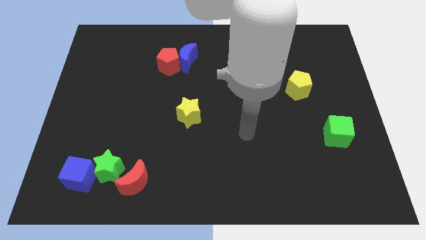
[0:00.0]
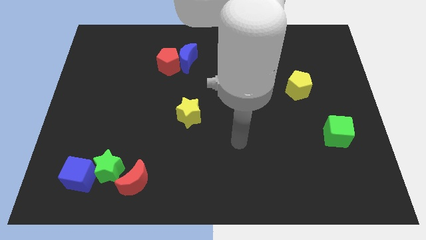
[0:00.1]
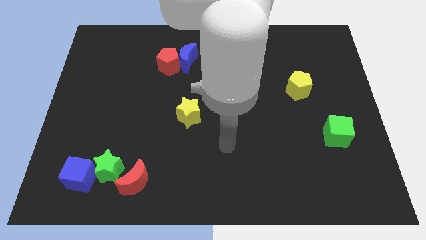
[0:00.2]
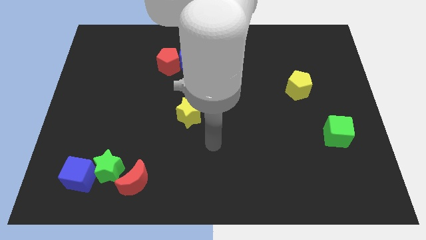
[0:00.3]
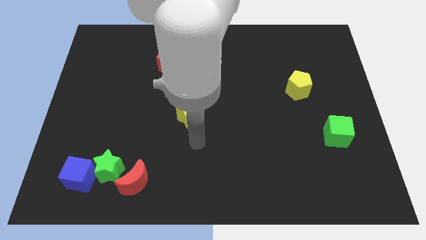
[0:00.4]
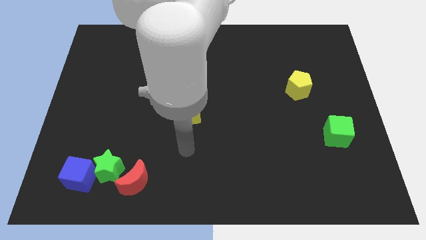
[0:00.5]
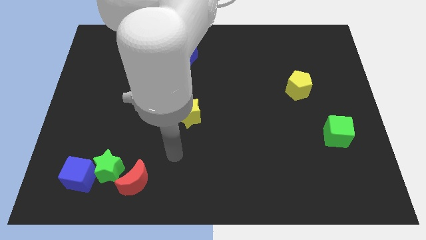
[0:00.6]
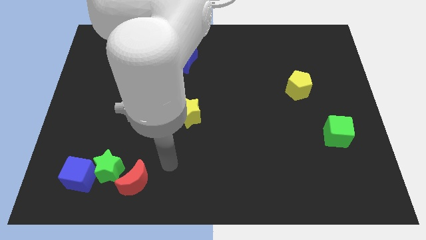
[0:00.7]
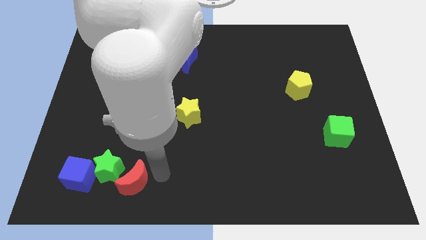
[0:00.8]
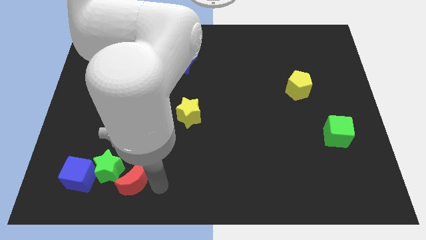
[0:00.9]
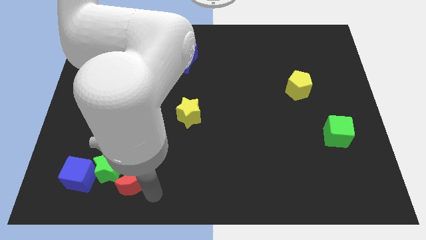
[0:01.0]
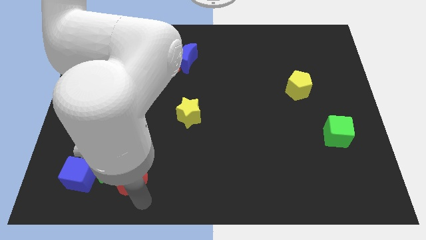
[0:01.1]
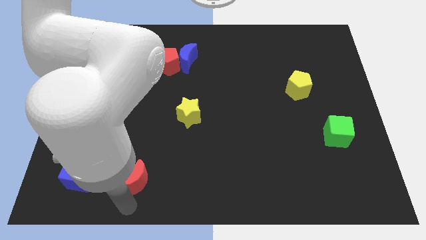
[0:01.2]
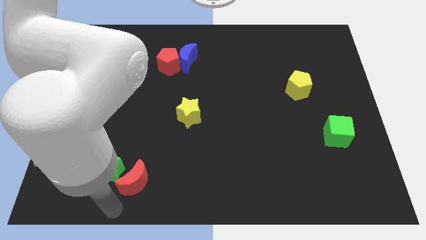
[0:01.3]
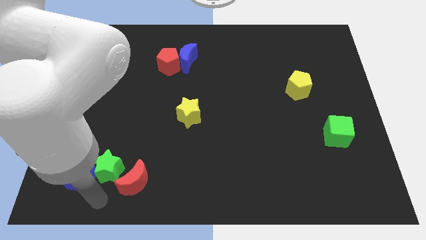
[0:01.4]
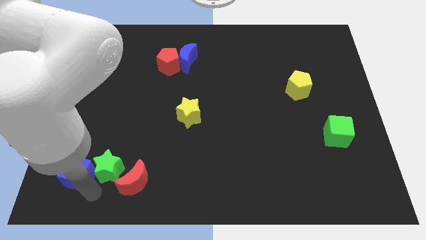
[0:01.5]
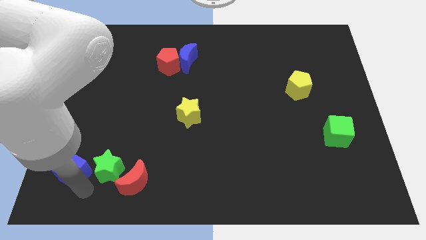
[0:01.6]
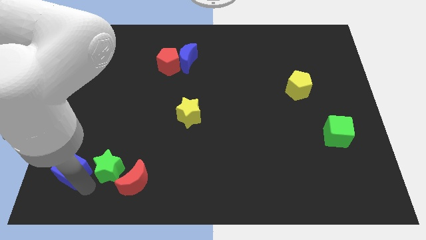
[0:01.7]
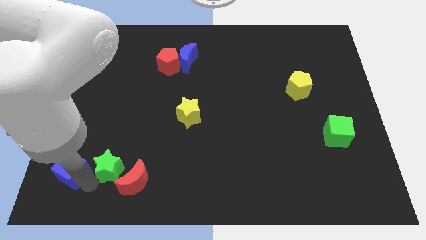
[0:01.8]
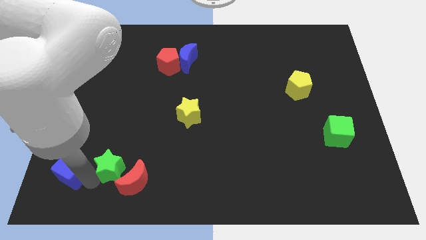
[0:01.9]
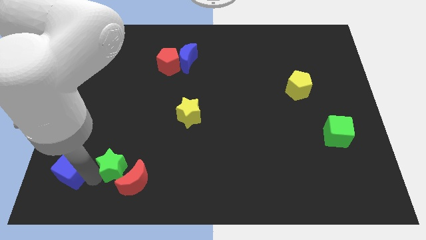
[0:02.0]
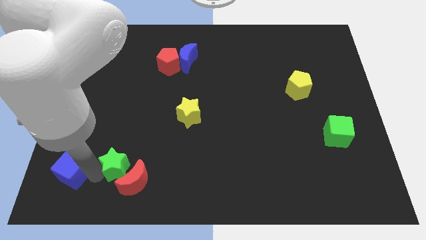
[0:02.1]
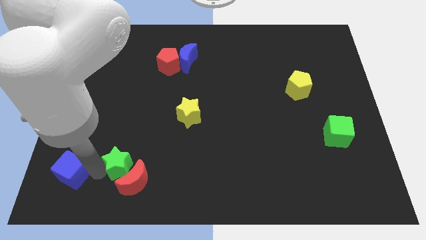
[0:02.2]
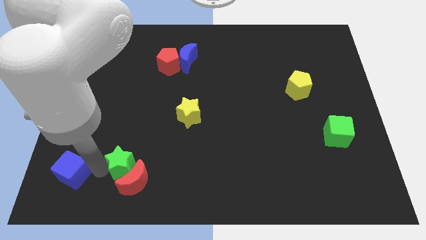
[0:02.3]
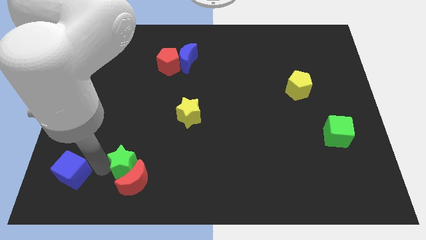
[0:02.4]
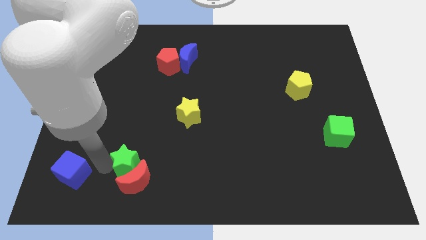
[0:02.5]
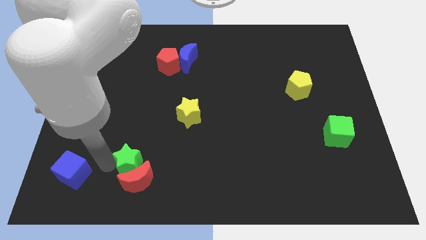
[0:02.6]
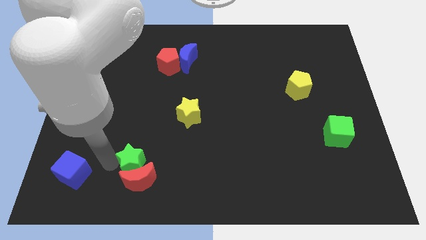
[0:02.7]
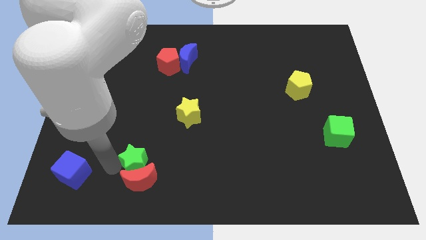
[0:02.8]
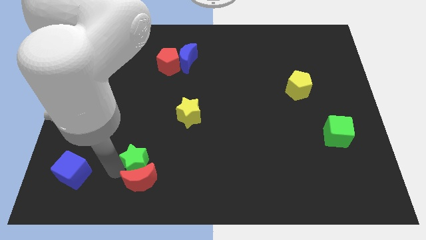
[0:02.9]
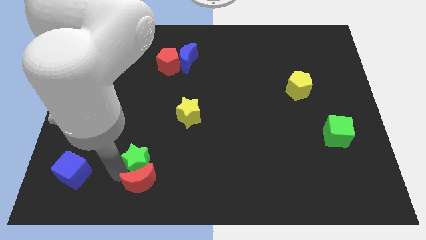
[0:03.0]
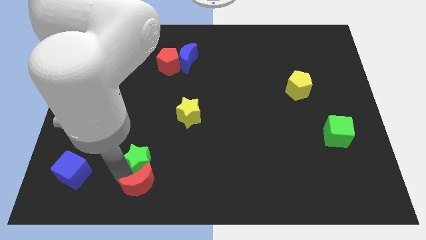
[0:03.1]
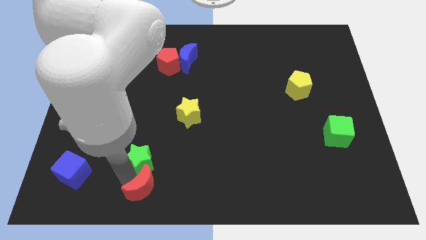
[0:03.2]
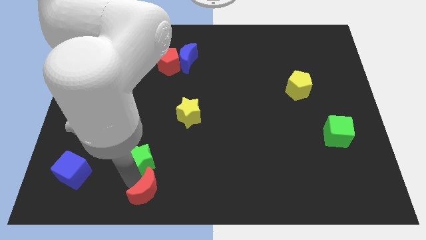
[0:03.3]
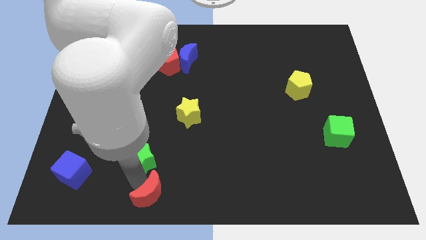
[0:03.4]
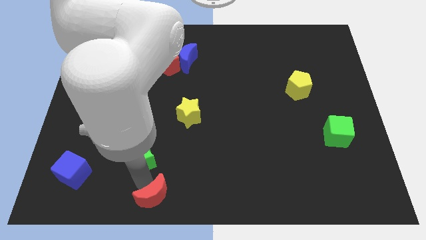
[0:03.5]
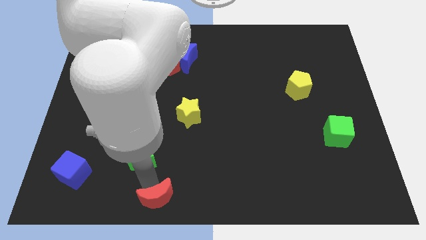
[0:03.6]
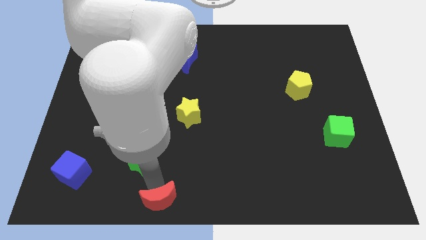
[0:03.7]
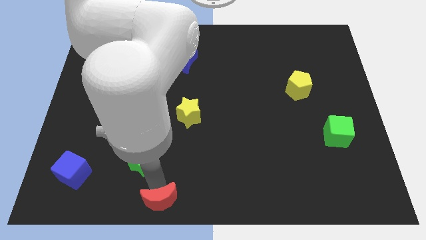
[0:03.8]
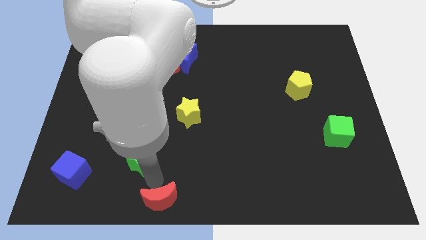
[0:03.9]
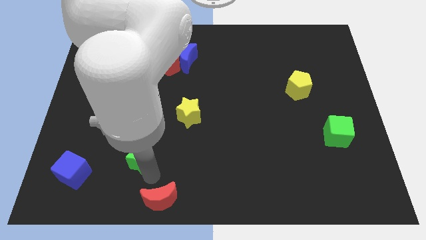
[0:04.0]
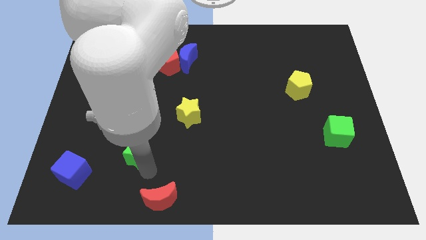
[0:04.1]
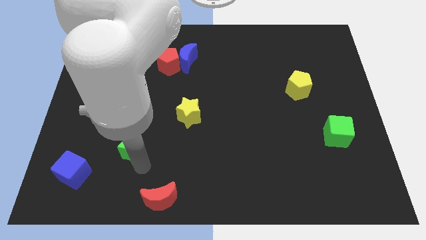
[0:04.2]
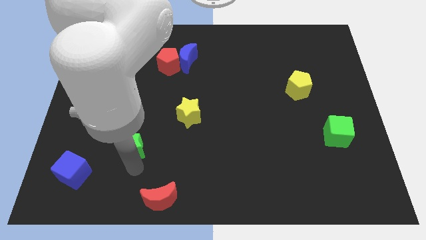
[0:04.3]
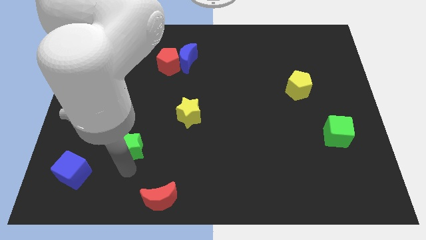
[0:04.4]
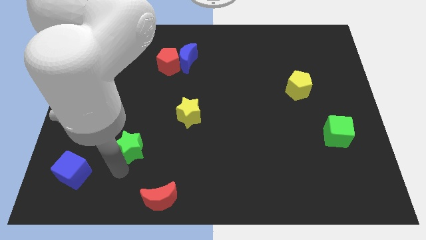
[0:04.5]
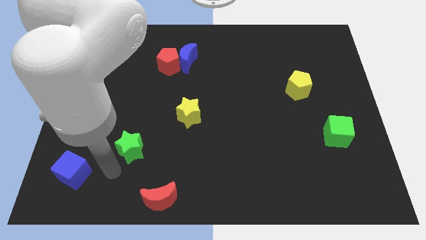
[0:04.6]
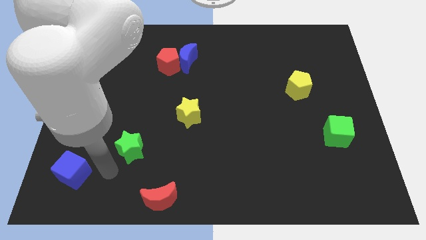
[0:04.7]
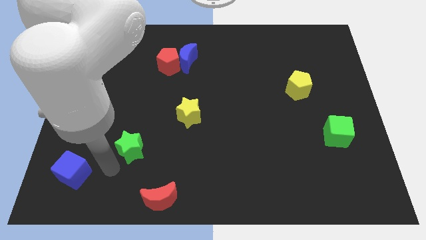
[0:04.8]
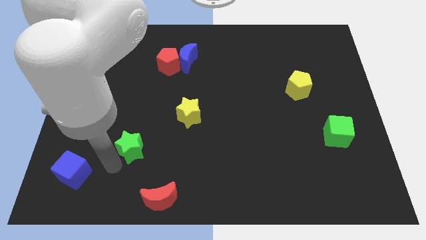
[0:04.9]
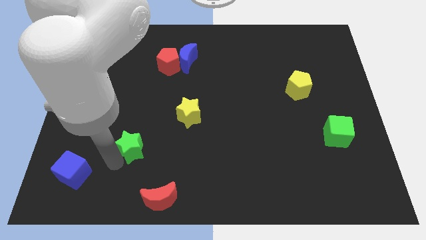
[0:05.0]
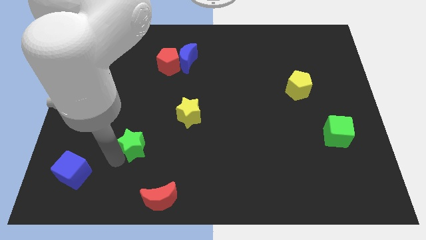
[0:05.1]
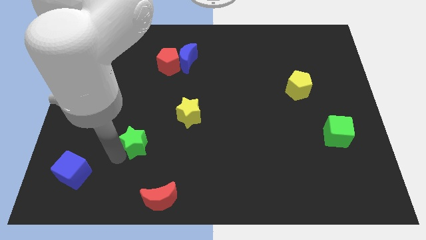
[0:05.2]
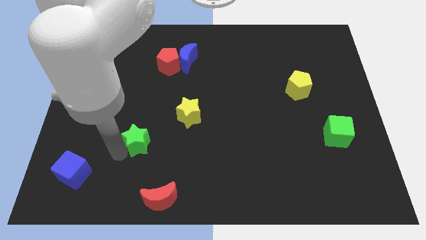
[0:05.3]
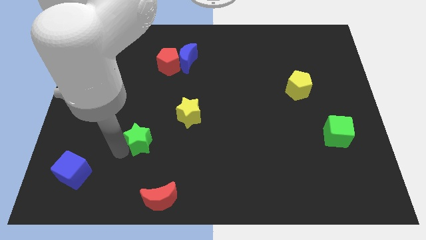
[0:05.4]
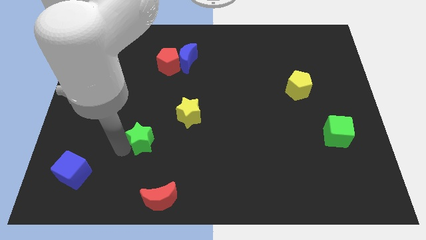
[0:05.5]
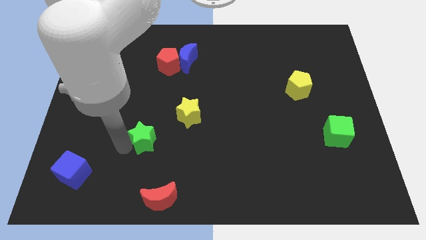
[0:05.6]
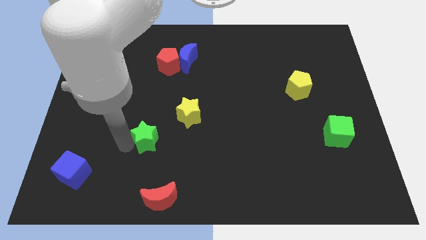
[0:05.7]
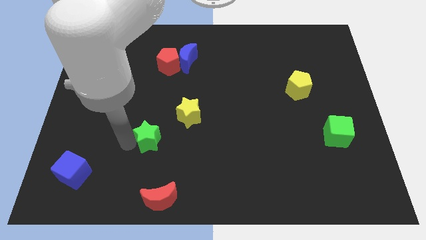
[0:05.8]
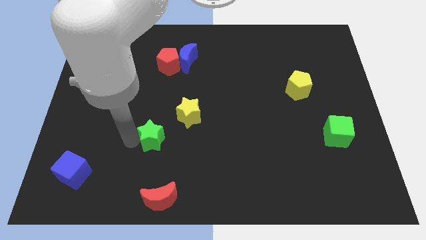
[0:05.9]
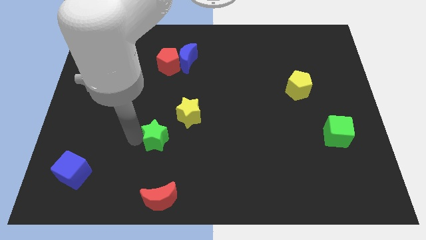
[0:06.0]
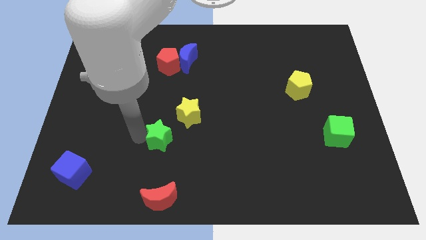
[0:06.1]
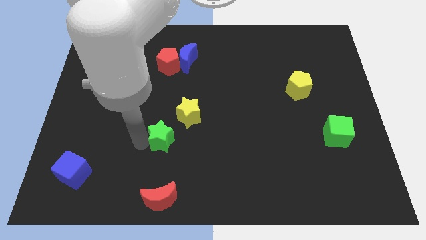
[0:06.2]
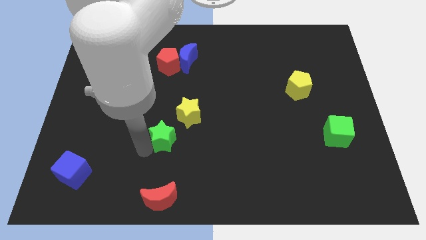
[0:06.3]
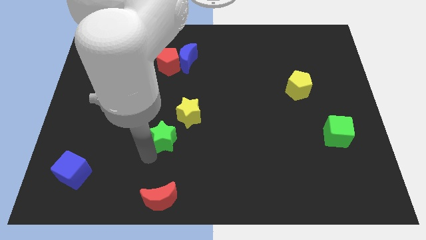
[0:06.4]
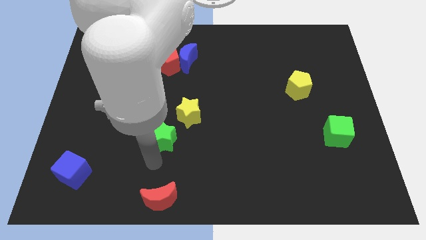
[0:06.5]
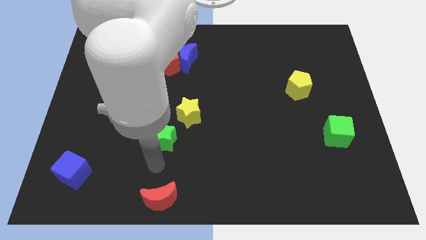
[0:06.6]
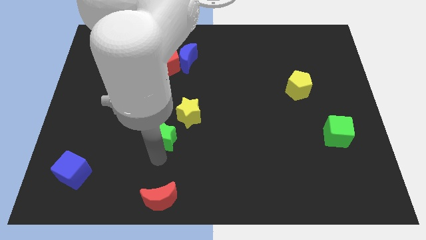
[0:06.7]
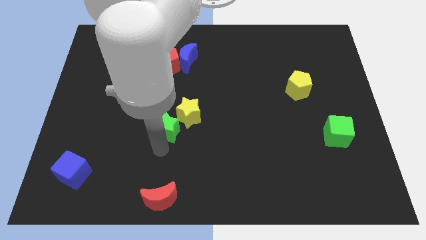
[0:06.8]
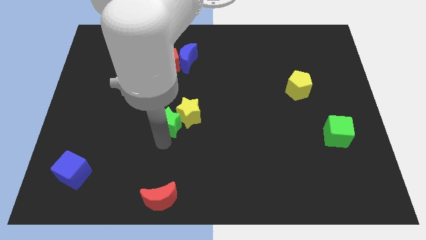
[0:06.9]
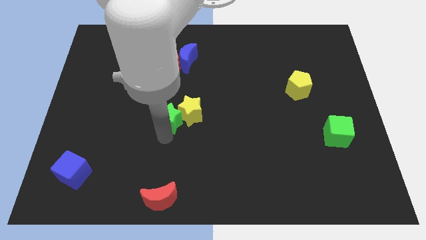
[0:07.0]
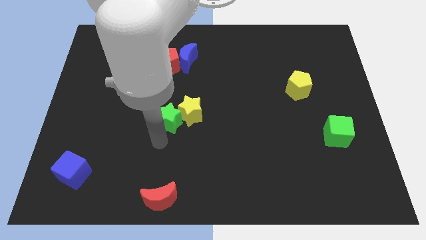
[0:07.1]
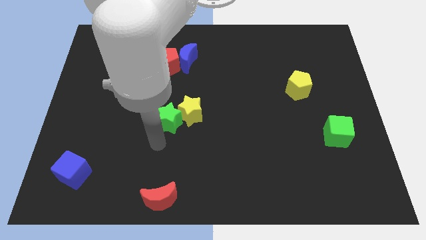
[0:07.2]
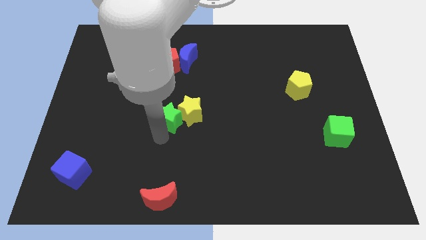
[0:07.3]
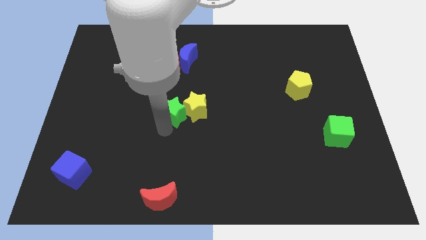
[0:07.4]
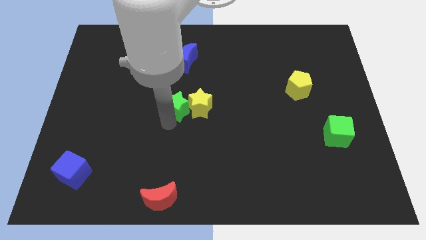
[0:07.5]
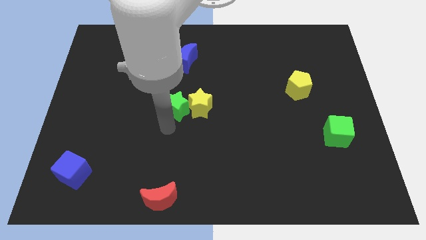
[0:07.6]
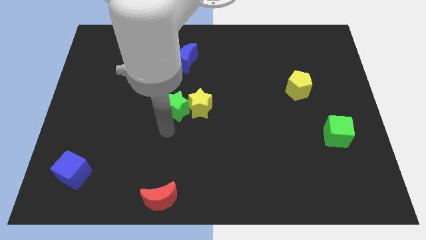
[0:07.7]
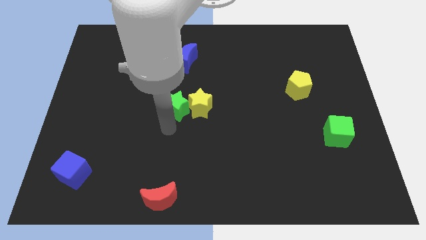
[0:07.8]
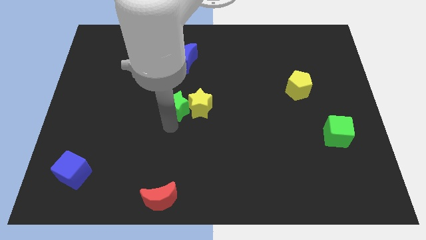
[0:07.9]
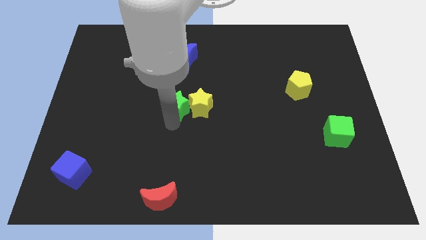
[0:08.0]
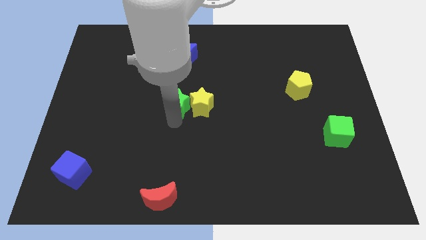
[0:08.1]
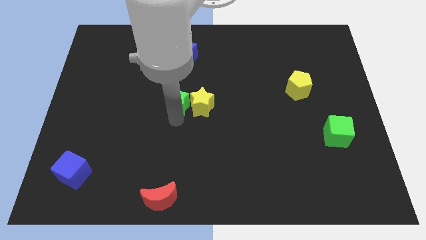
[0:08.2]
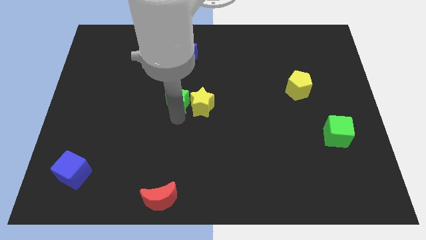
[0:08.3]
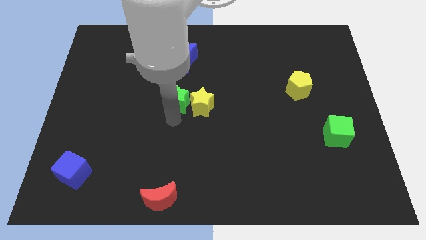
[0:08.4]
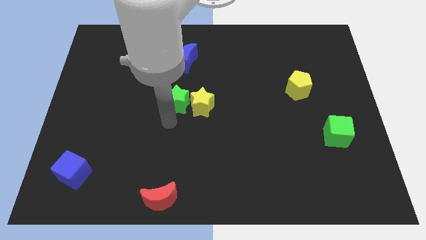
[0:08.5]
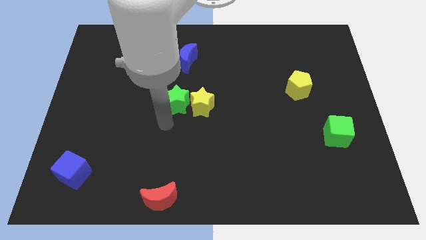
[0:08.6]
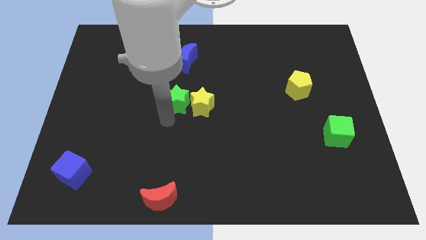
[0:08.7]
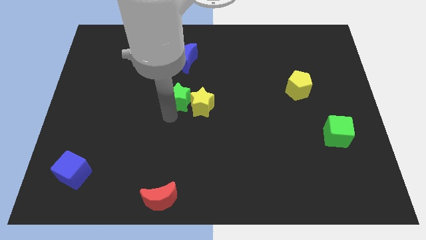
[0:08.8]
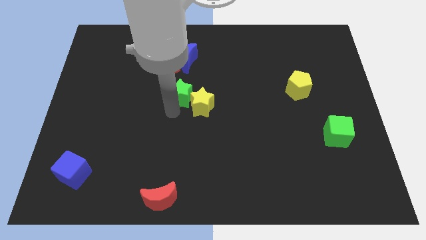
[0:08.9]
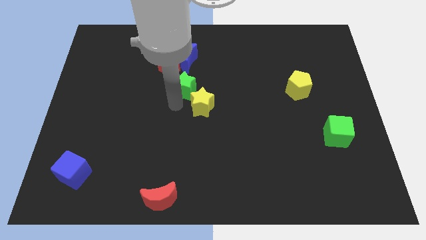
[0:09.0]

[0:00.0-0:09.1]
move the green star above the yellow star
